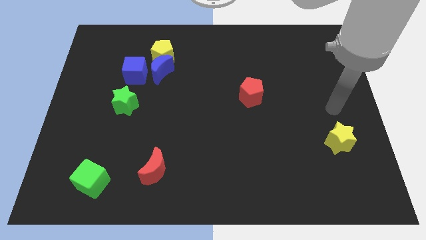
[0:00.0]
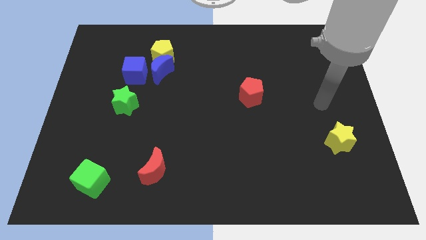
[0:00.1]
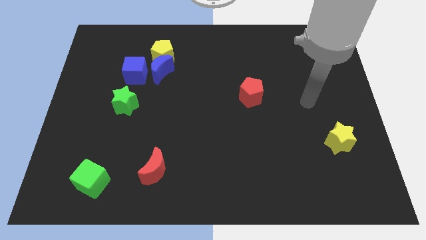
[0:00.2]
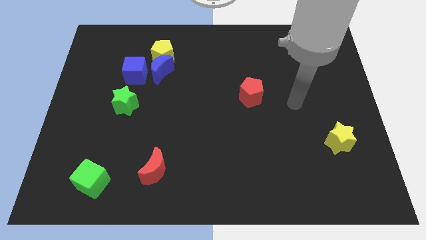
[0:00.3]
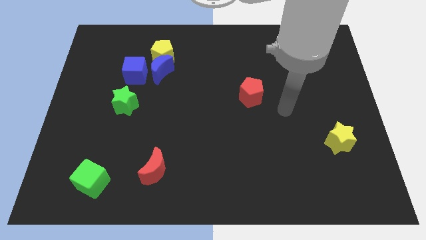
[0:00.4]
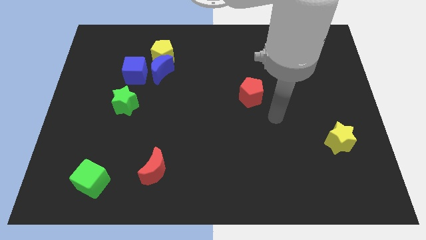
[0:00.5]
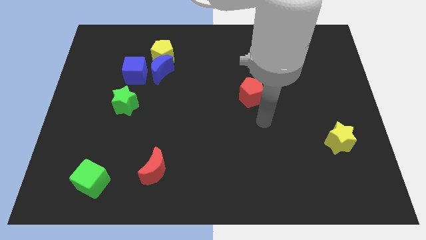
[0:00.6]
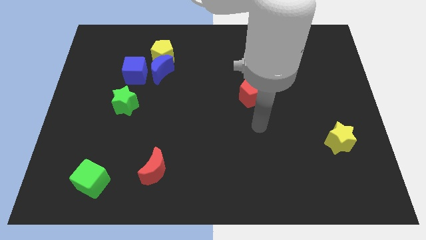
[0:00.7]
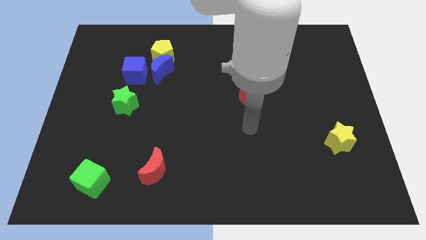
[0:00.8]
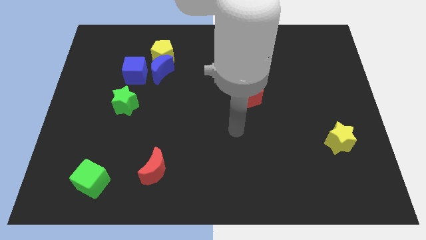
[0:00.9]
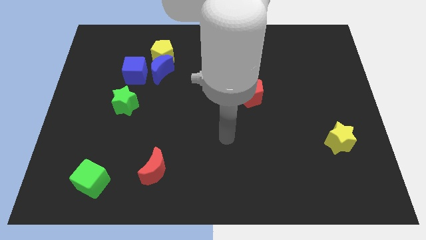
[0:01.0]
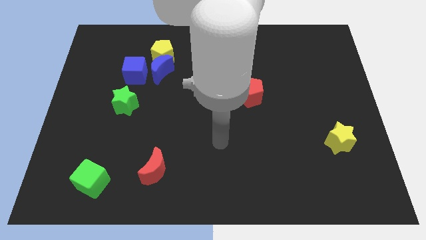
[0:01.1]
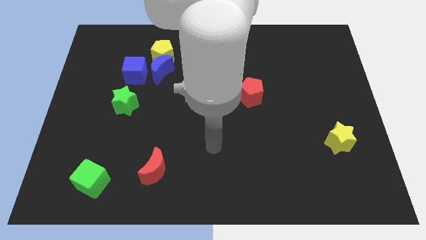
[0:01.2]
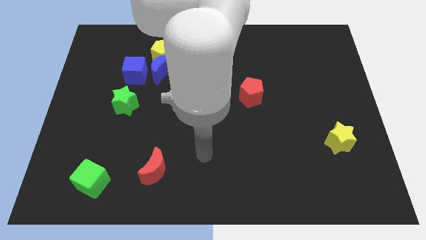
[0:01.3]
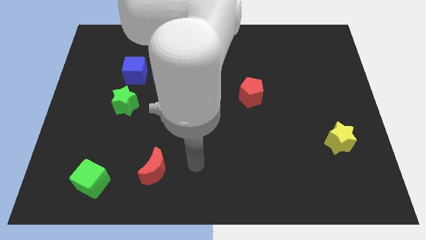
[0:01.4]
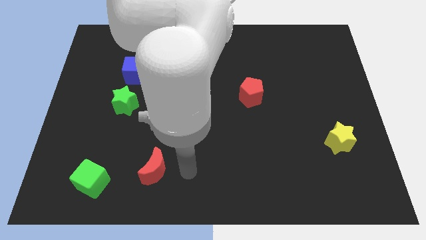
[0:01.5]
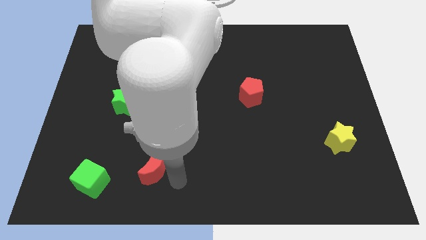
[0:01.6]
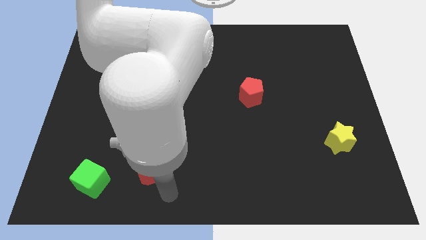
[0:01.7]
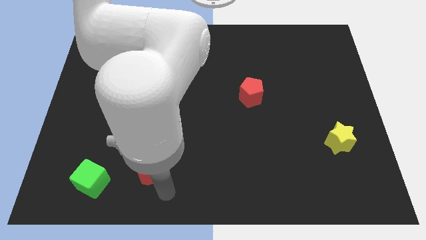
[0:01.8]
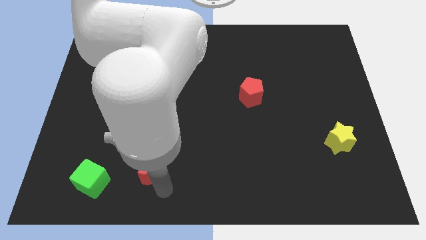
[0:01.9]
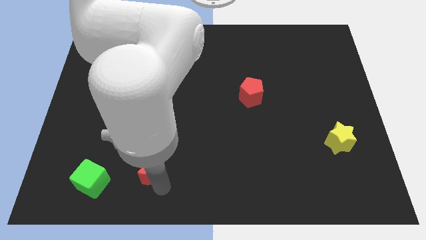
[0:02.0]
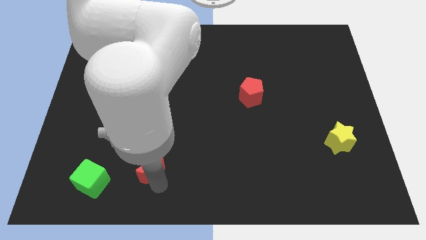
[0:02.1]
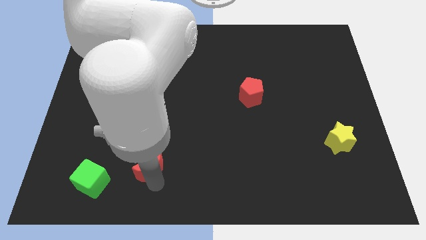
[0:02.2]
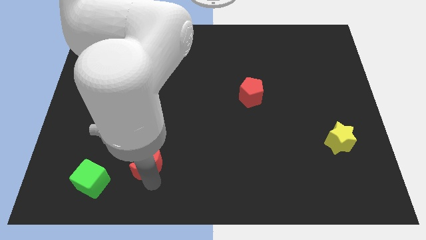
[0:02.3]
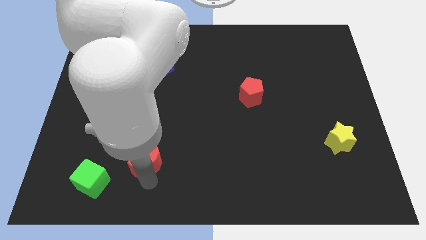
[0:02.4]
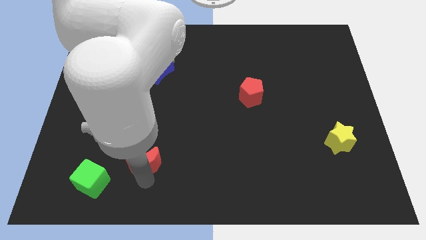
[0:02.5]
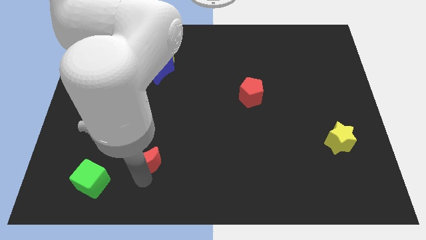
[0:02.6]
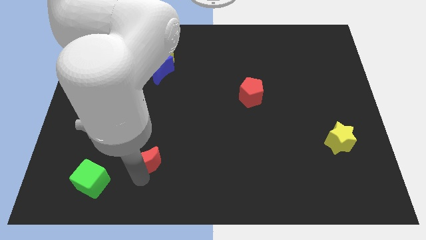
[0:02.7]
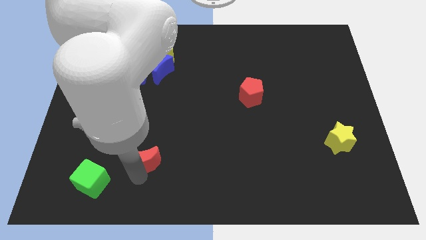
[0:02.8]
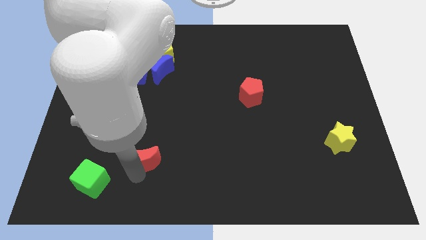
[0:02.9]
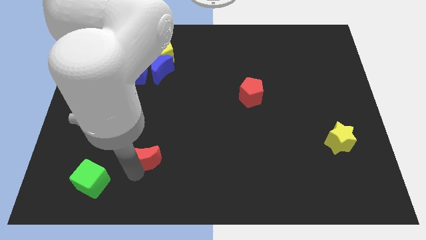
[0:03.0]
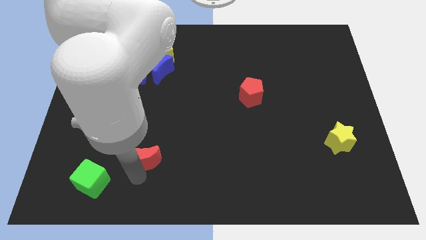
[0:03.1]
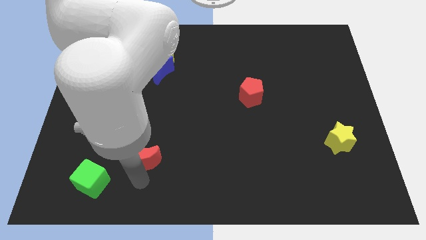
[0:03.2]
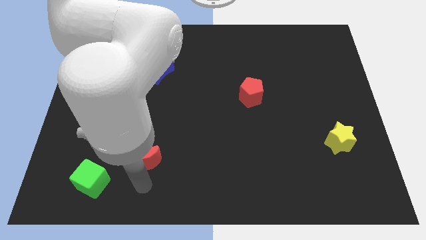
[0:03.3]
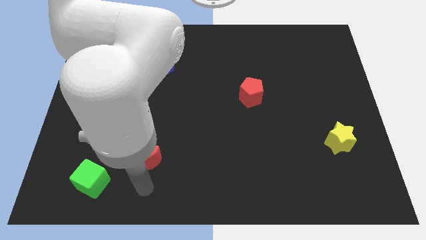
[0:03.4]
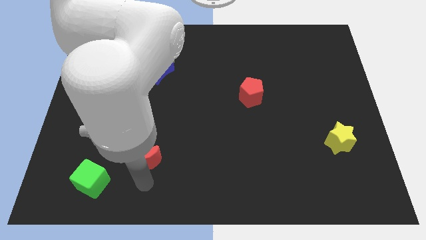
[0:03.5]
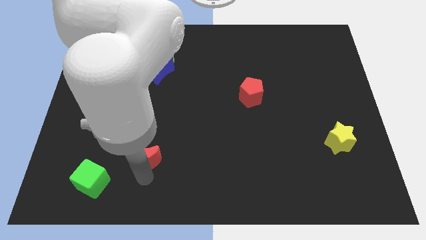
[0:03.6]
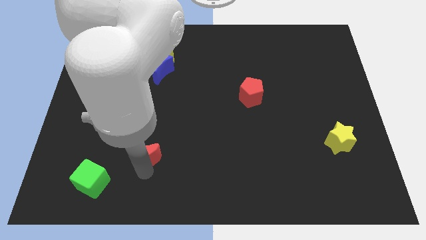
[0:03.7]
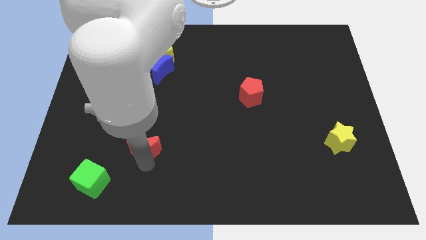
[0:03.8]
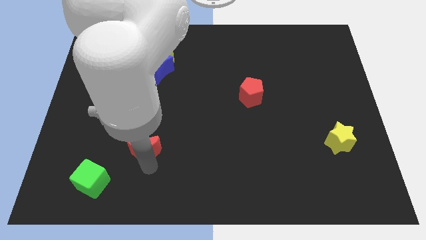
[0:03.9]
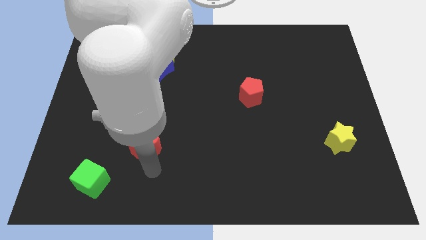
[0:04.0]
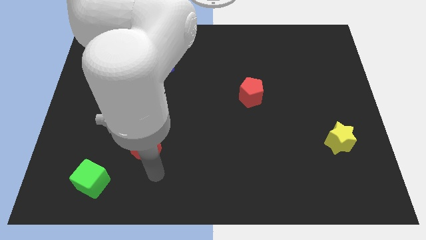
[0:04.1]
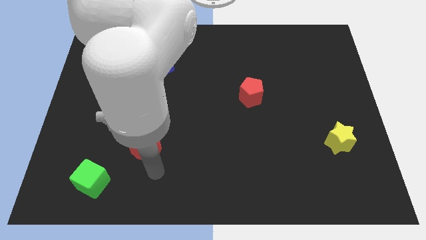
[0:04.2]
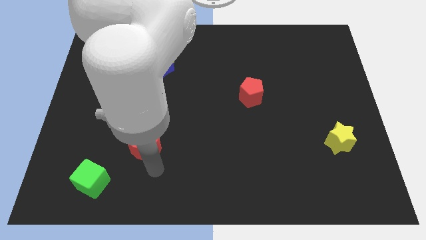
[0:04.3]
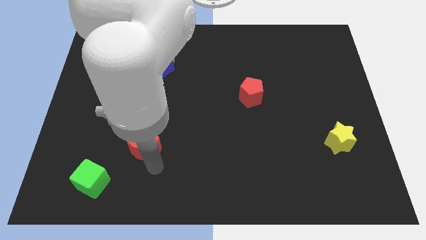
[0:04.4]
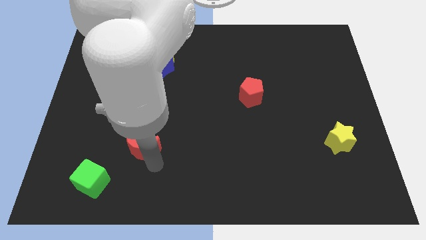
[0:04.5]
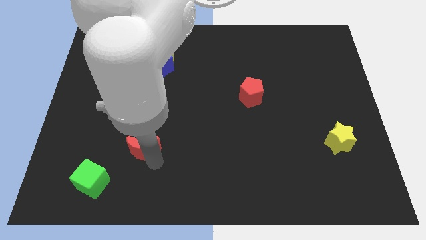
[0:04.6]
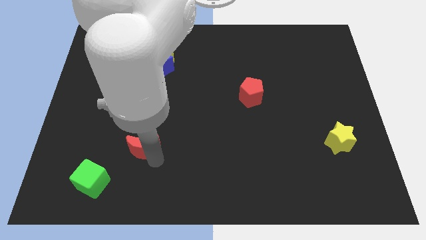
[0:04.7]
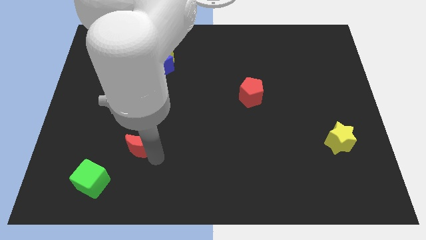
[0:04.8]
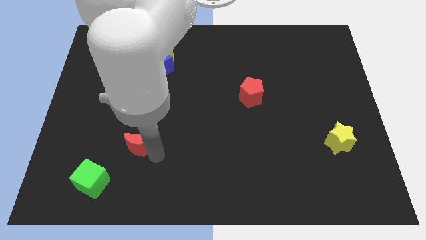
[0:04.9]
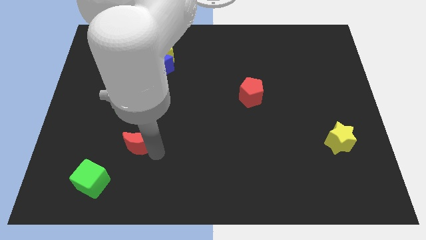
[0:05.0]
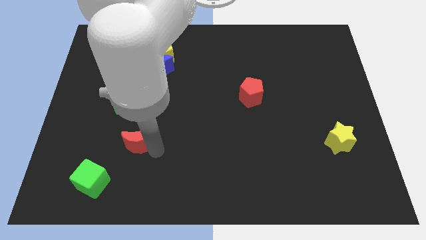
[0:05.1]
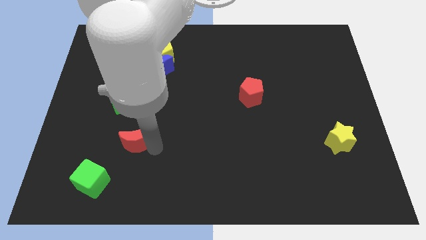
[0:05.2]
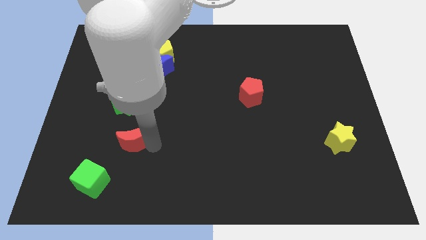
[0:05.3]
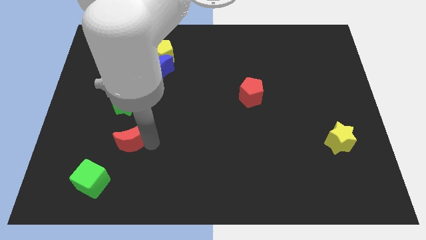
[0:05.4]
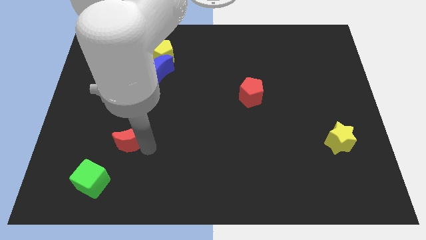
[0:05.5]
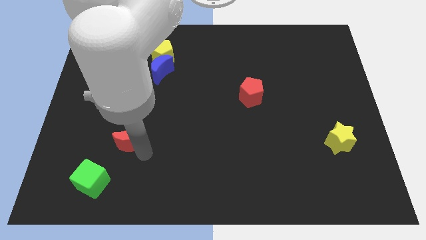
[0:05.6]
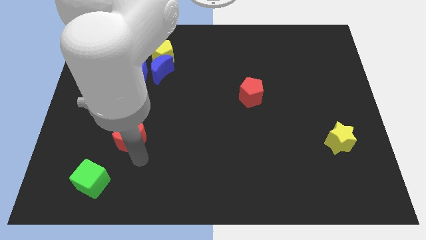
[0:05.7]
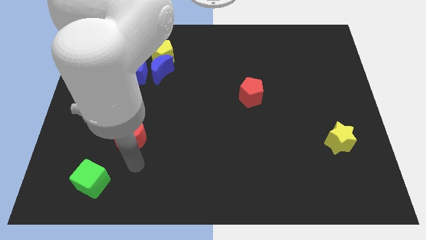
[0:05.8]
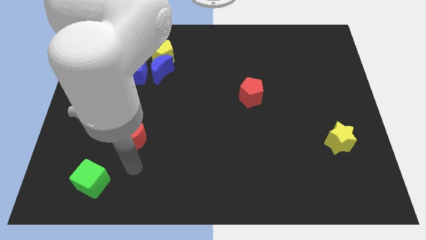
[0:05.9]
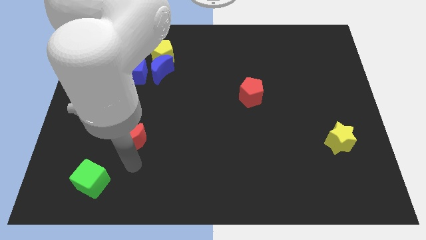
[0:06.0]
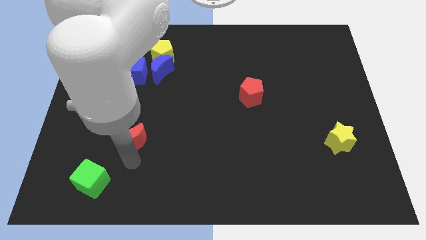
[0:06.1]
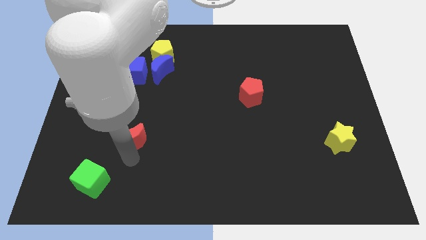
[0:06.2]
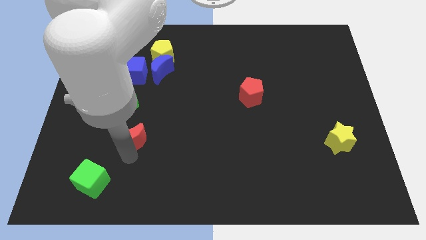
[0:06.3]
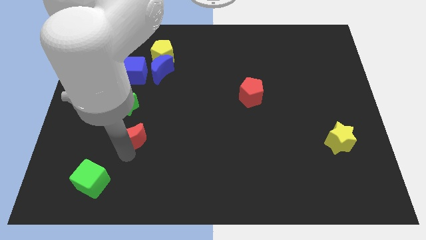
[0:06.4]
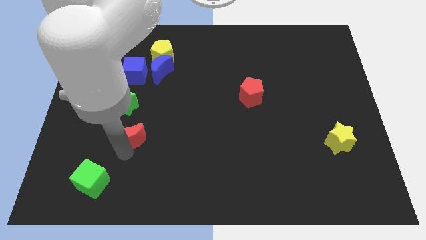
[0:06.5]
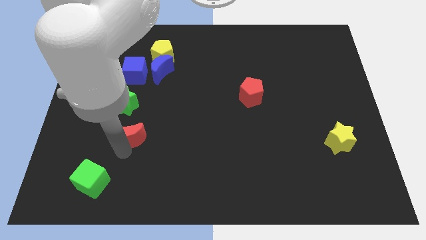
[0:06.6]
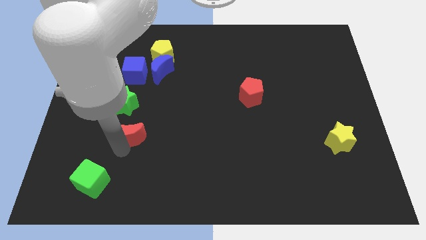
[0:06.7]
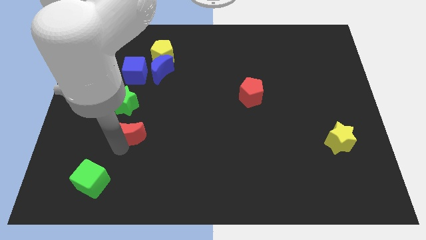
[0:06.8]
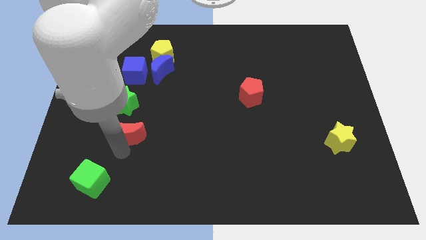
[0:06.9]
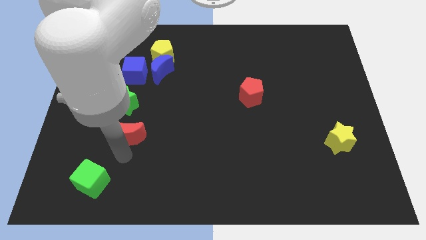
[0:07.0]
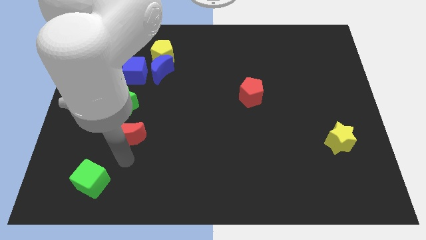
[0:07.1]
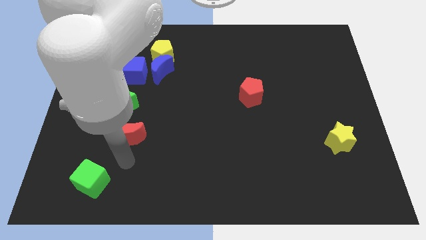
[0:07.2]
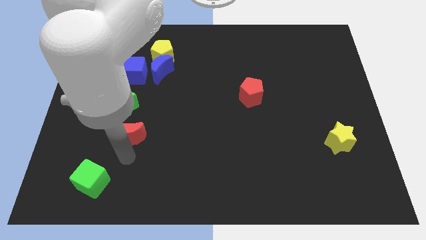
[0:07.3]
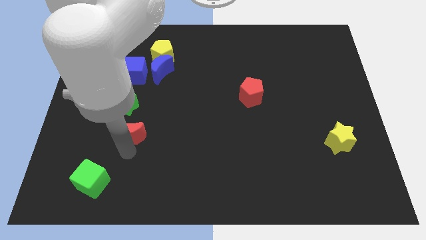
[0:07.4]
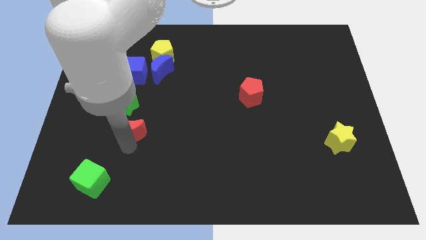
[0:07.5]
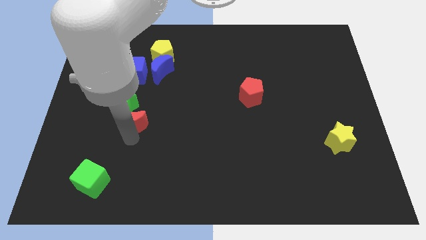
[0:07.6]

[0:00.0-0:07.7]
move the red moon towards the green star
